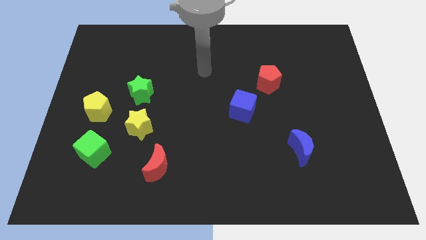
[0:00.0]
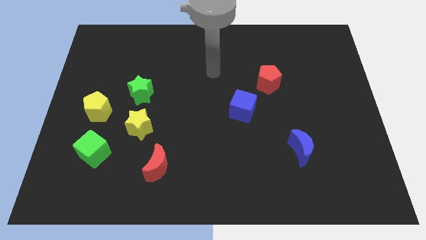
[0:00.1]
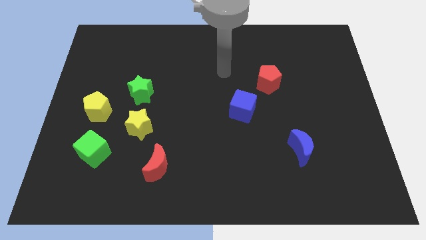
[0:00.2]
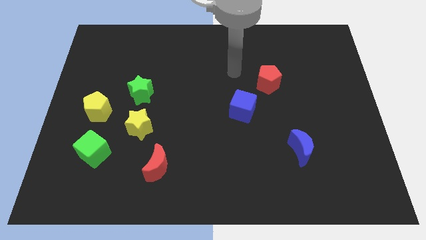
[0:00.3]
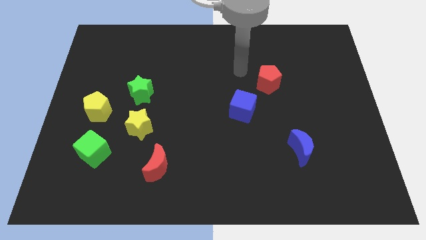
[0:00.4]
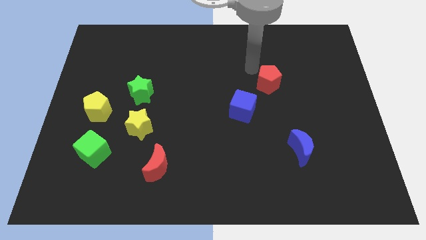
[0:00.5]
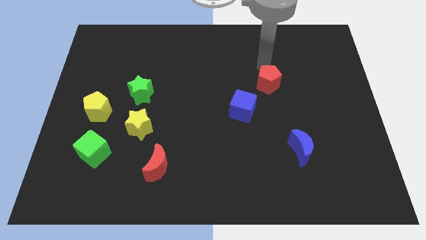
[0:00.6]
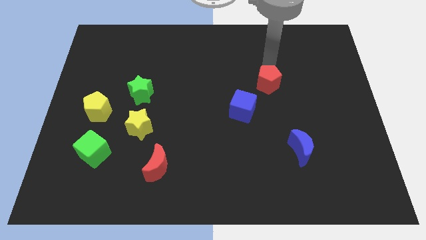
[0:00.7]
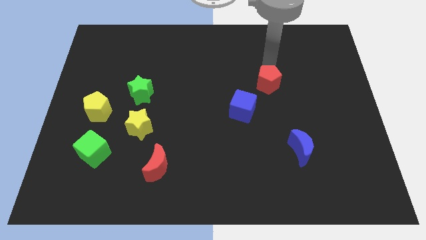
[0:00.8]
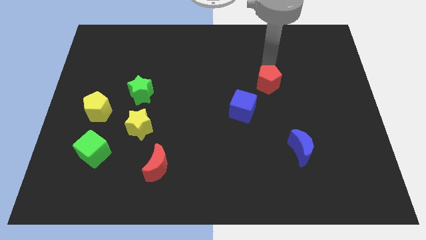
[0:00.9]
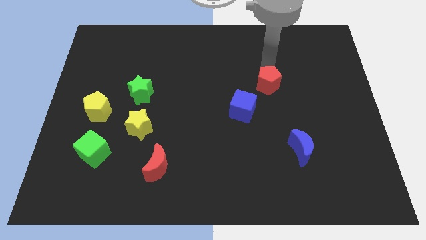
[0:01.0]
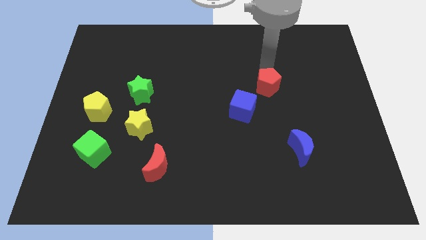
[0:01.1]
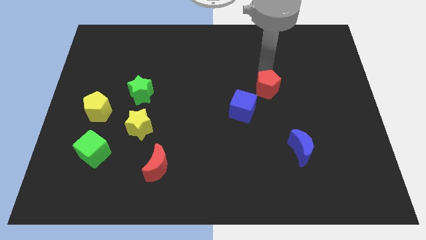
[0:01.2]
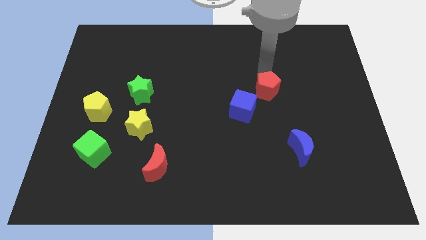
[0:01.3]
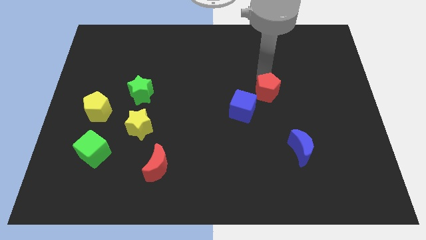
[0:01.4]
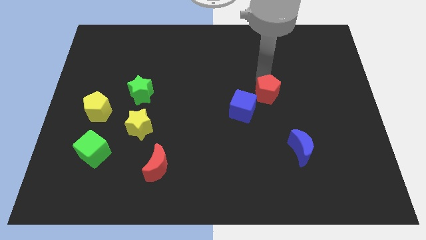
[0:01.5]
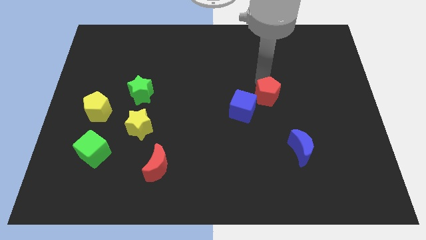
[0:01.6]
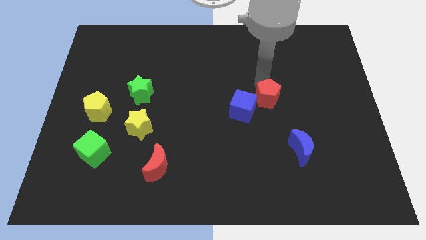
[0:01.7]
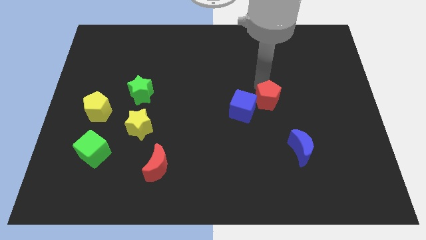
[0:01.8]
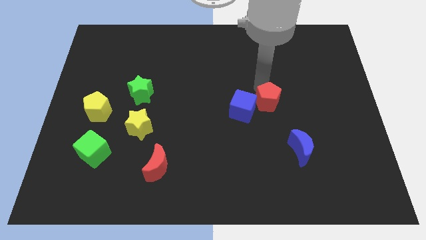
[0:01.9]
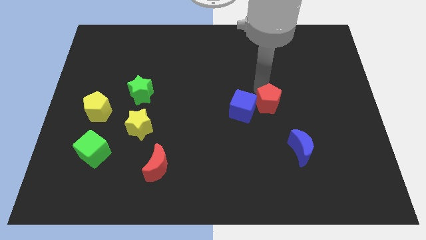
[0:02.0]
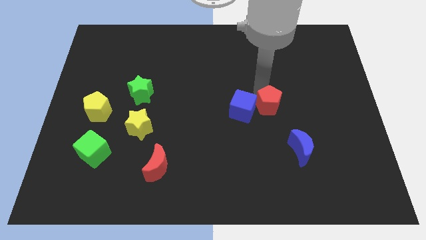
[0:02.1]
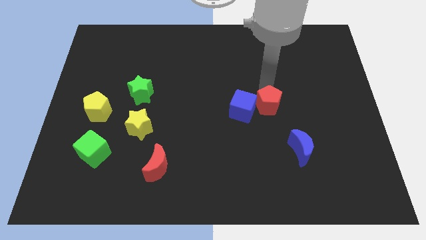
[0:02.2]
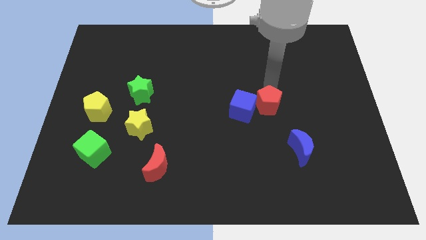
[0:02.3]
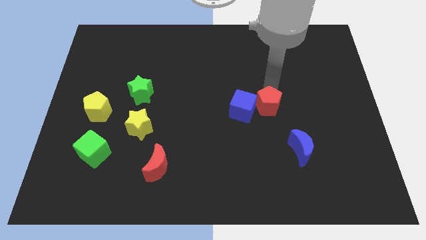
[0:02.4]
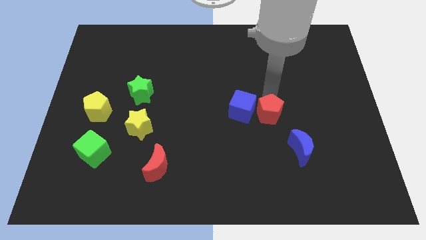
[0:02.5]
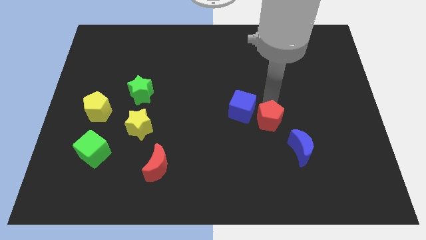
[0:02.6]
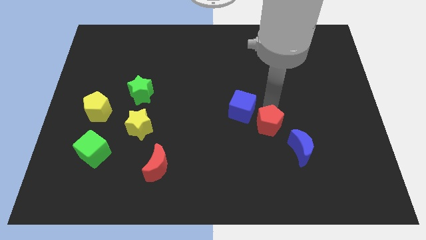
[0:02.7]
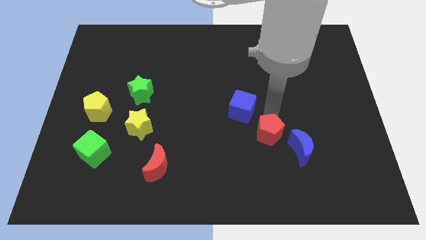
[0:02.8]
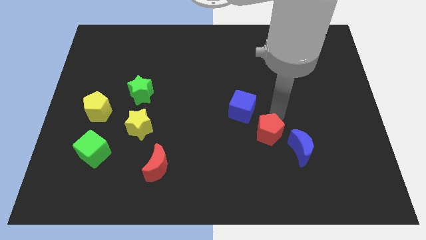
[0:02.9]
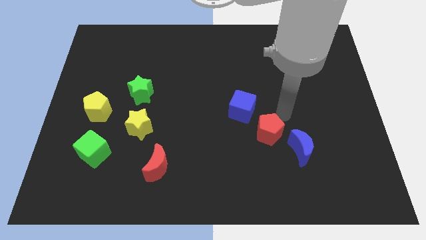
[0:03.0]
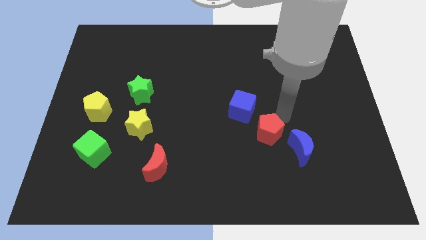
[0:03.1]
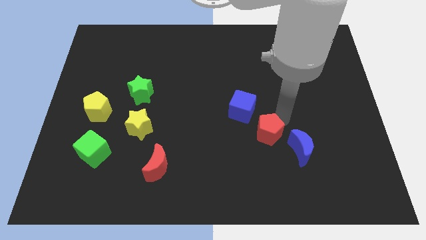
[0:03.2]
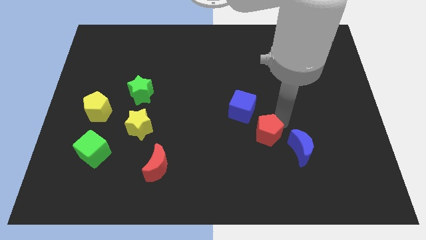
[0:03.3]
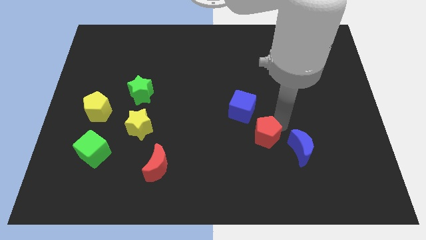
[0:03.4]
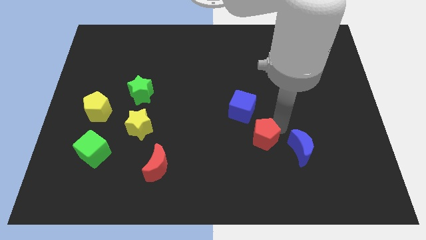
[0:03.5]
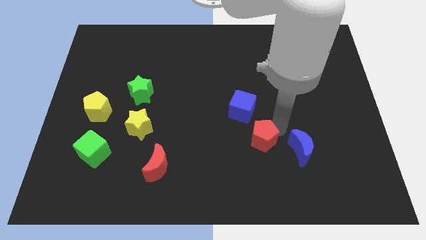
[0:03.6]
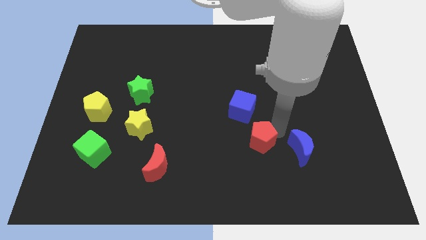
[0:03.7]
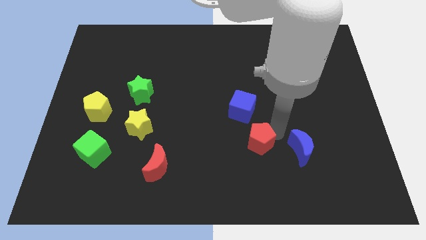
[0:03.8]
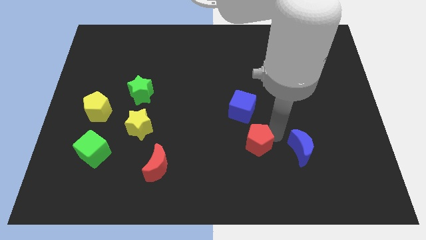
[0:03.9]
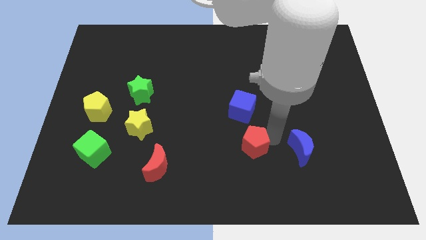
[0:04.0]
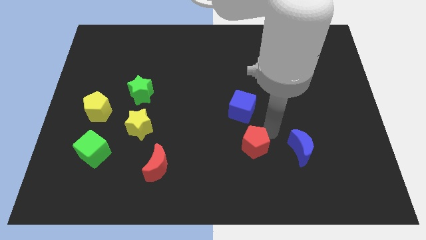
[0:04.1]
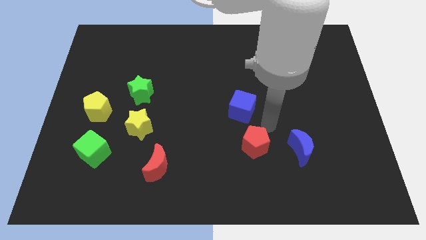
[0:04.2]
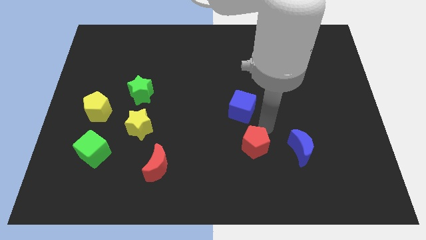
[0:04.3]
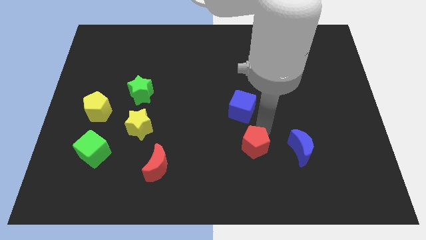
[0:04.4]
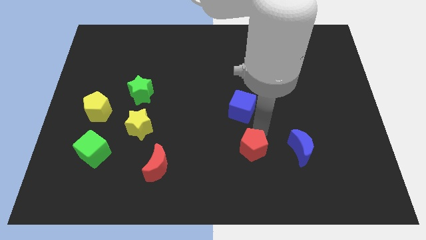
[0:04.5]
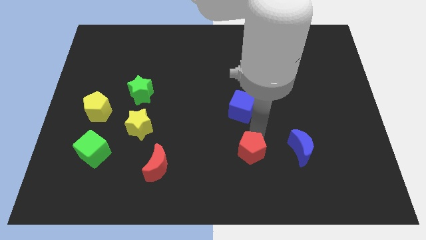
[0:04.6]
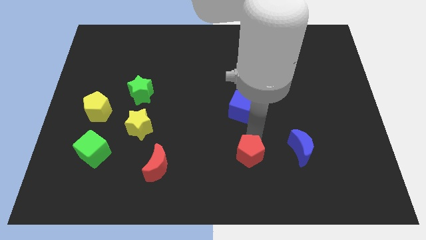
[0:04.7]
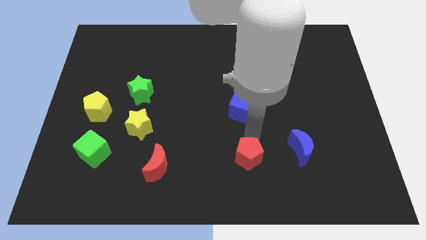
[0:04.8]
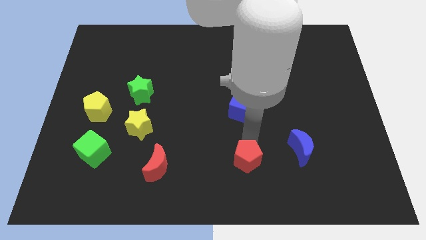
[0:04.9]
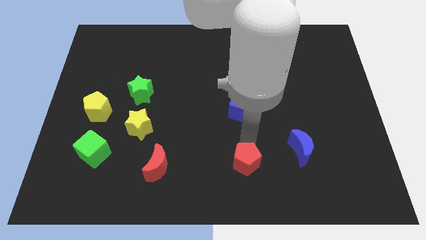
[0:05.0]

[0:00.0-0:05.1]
slide the red pentagon to the bottom side
